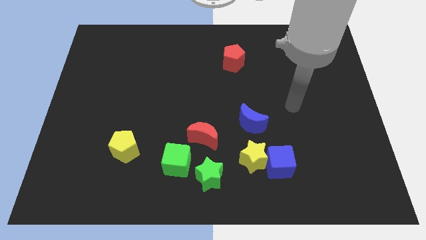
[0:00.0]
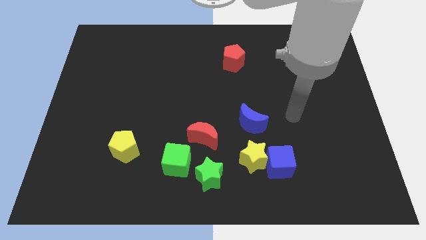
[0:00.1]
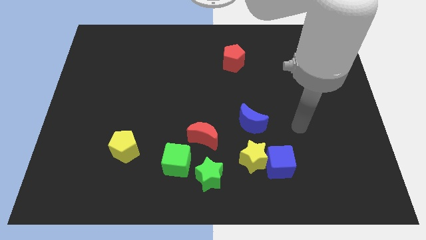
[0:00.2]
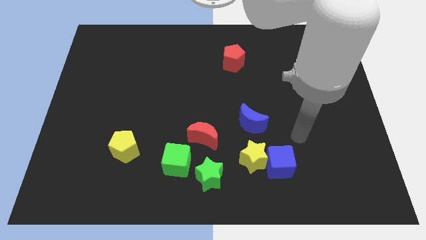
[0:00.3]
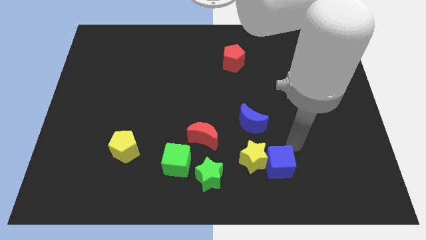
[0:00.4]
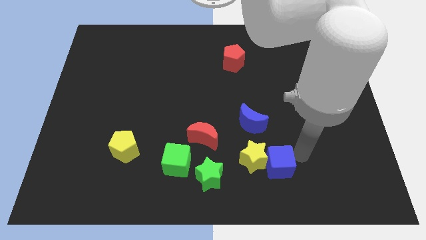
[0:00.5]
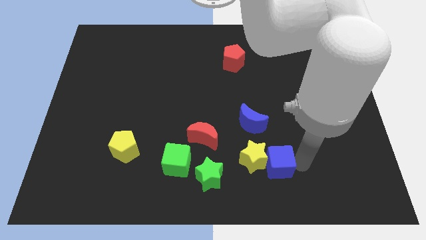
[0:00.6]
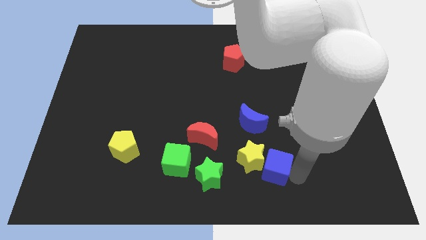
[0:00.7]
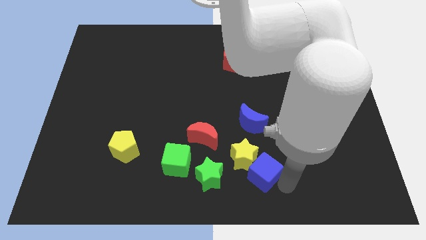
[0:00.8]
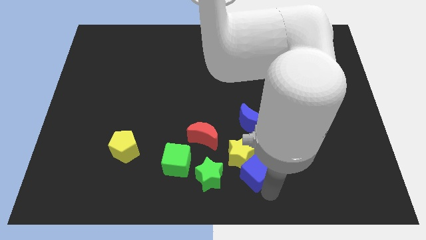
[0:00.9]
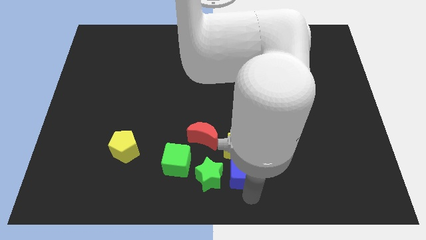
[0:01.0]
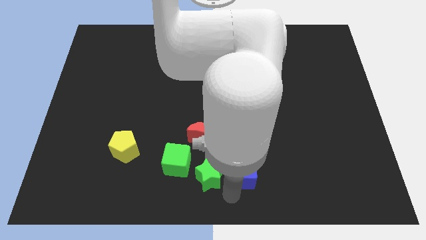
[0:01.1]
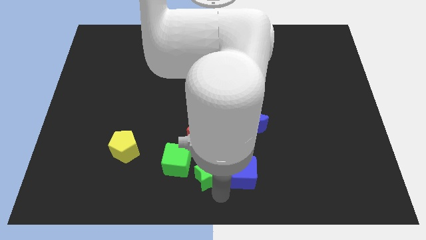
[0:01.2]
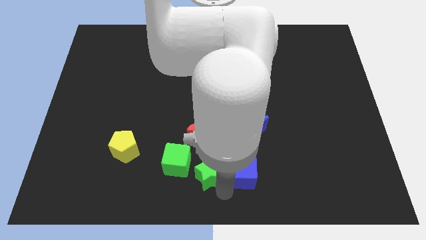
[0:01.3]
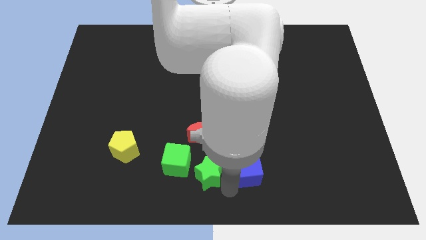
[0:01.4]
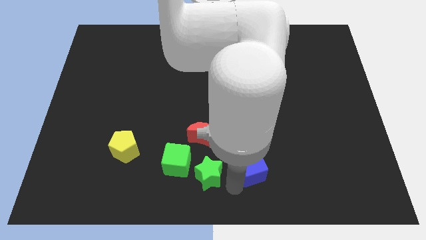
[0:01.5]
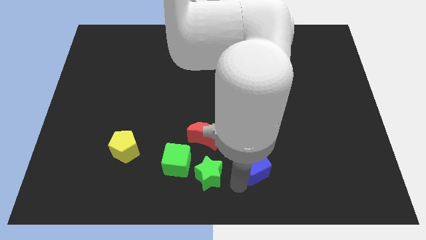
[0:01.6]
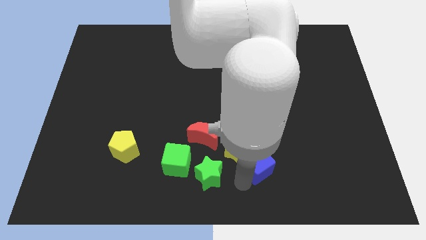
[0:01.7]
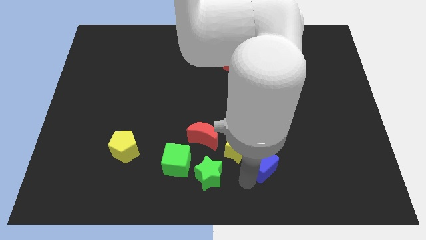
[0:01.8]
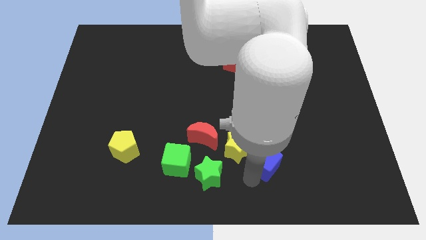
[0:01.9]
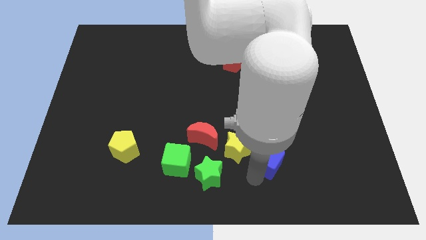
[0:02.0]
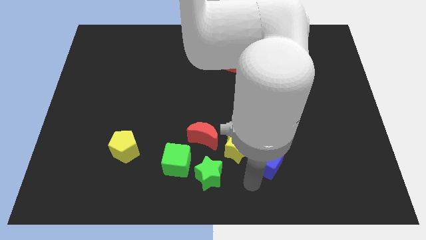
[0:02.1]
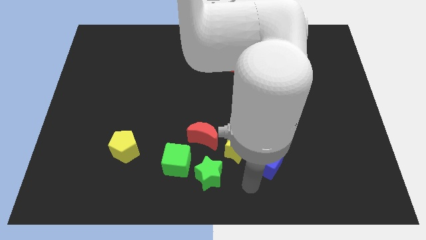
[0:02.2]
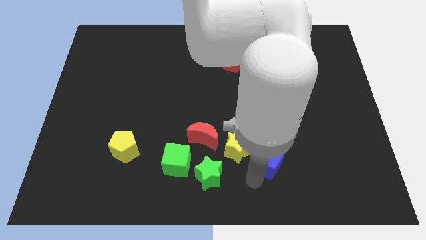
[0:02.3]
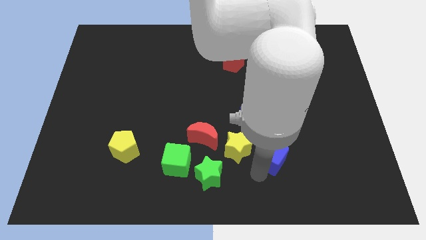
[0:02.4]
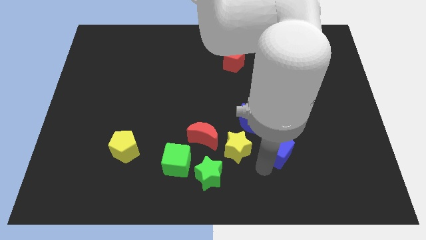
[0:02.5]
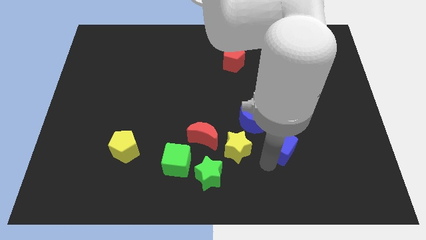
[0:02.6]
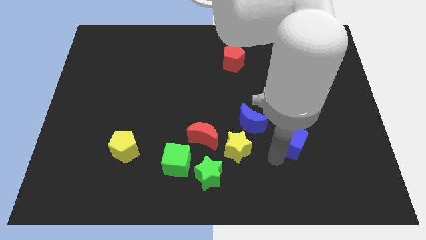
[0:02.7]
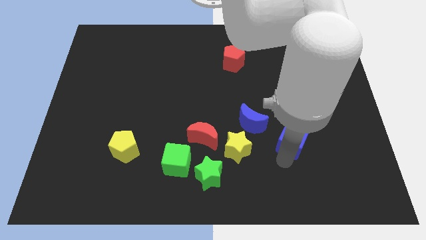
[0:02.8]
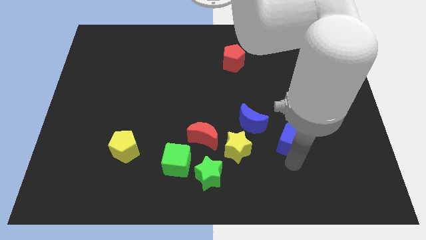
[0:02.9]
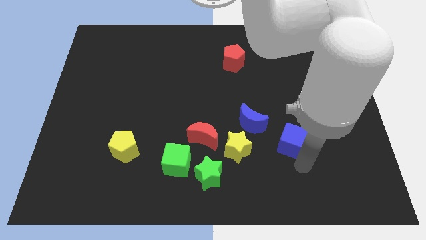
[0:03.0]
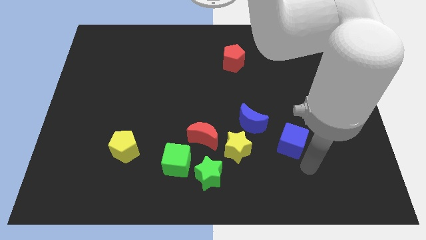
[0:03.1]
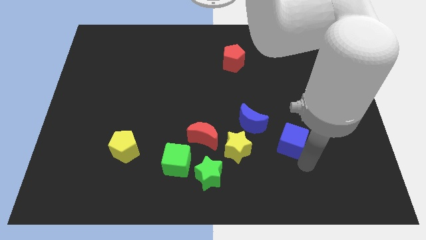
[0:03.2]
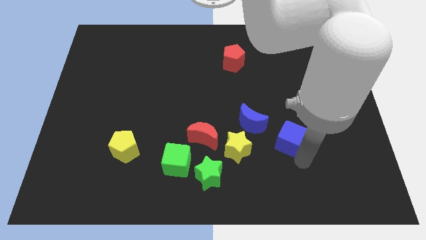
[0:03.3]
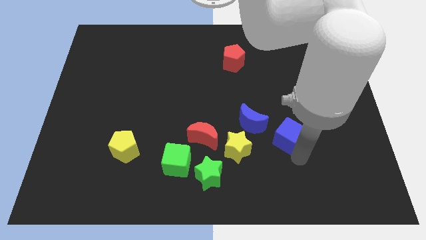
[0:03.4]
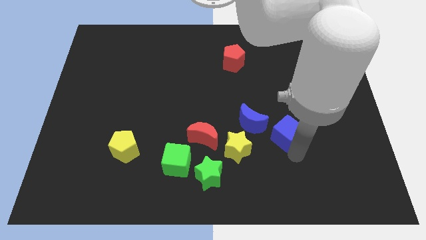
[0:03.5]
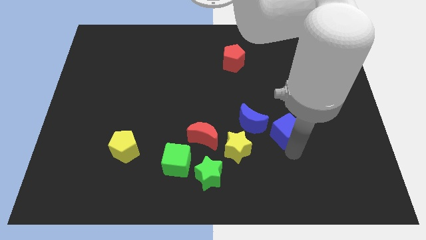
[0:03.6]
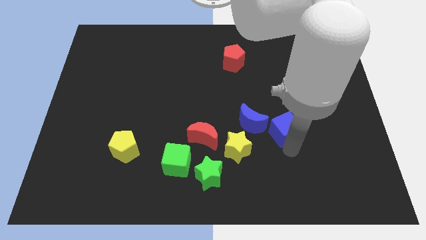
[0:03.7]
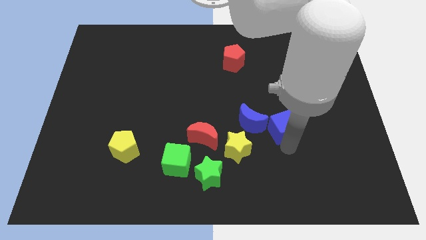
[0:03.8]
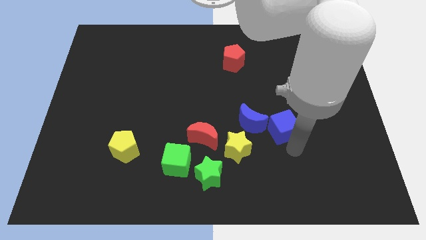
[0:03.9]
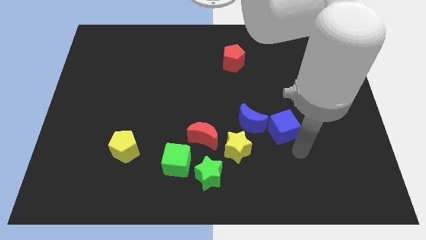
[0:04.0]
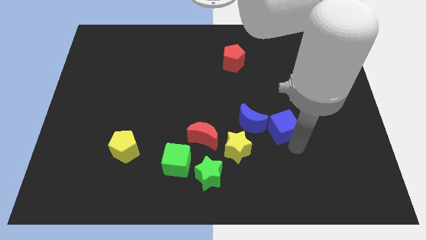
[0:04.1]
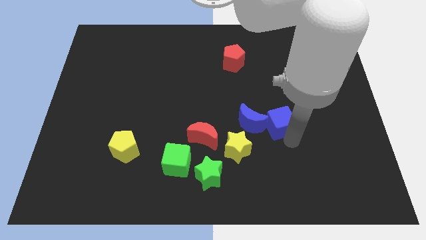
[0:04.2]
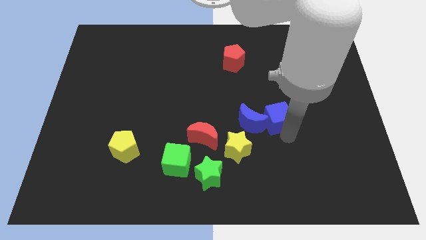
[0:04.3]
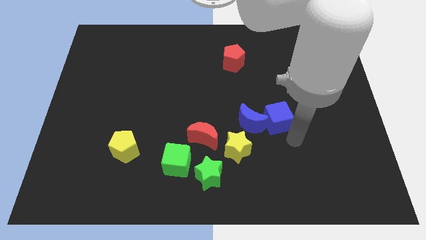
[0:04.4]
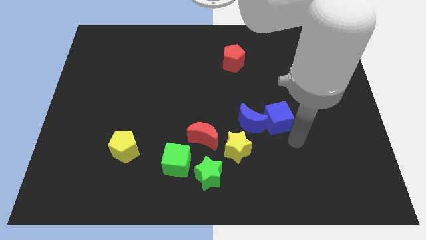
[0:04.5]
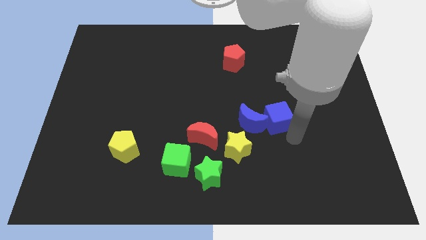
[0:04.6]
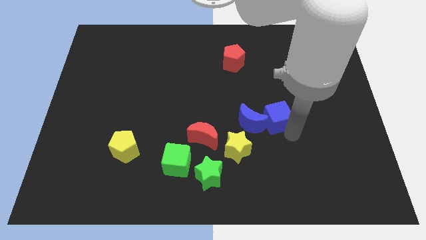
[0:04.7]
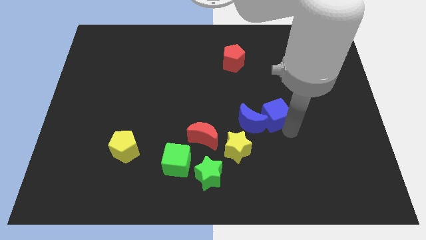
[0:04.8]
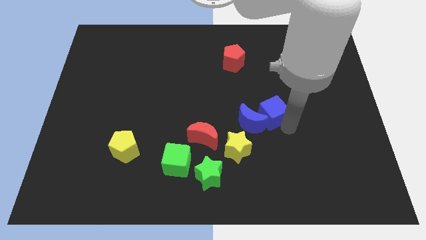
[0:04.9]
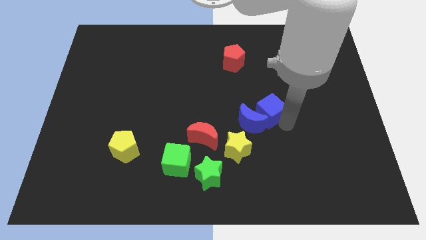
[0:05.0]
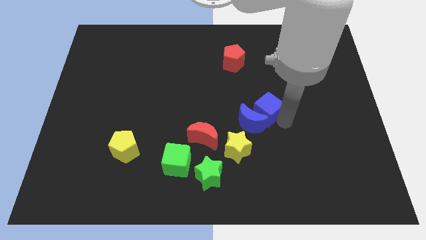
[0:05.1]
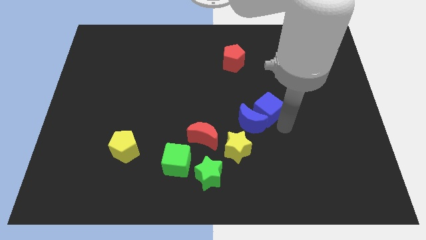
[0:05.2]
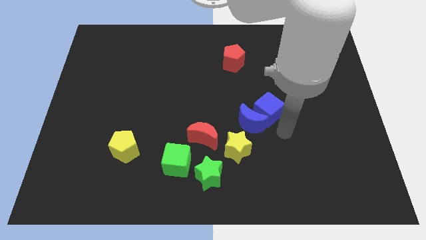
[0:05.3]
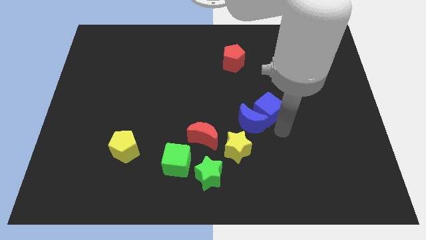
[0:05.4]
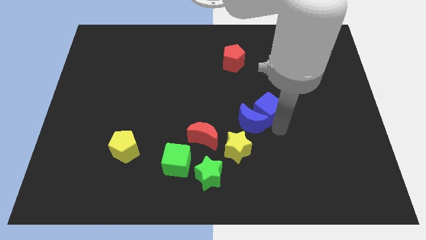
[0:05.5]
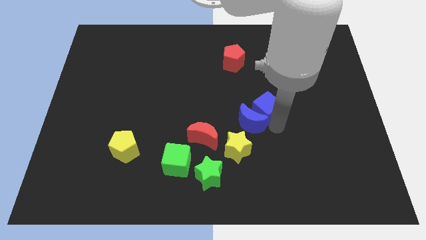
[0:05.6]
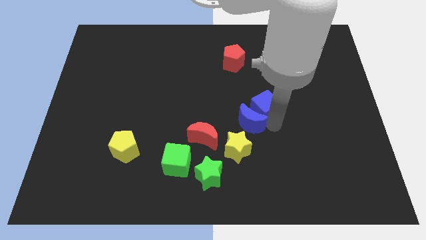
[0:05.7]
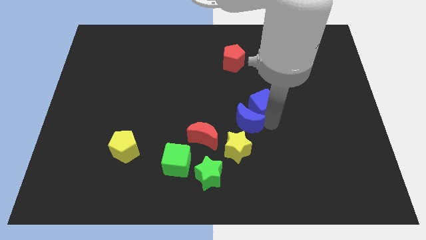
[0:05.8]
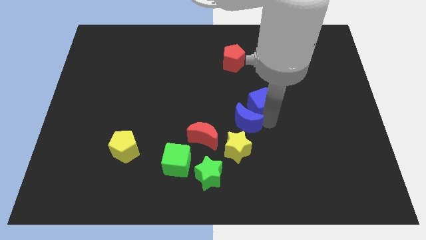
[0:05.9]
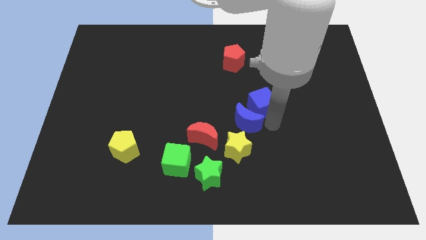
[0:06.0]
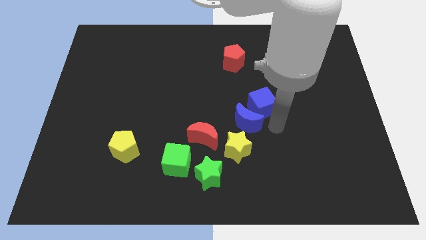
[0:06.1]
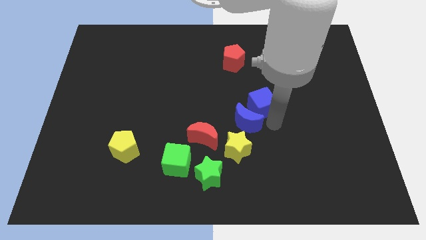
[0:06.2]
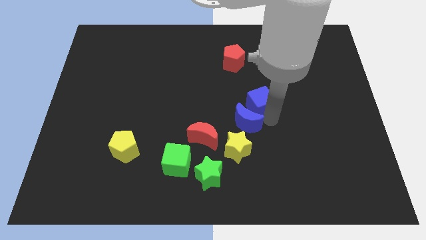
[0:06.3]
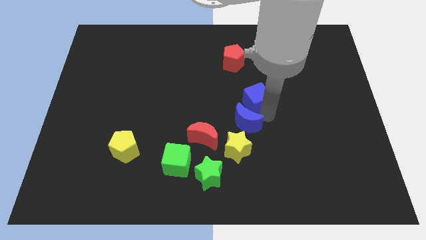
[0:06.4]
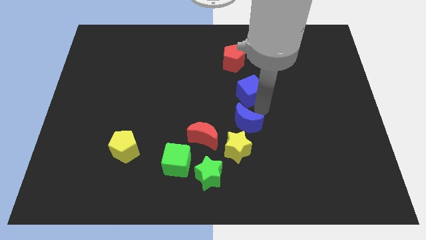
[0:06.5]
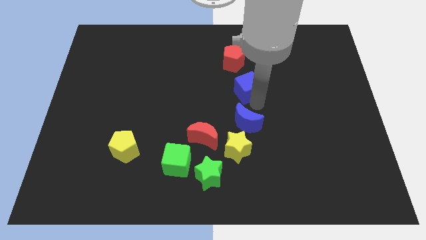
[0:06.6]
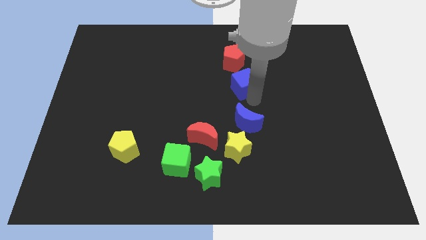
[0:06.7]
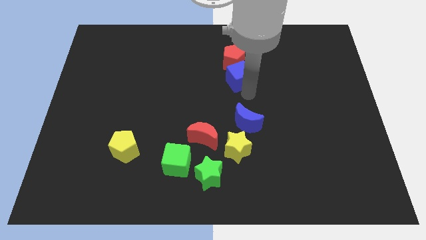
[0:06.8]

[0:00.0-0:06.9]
move the blue cube to the red pentagon

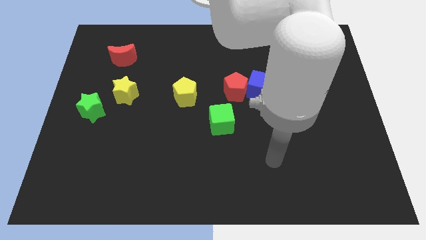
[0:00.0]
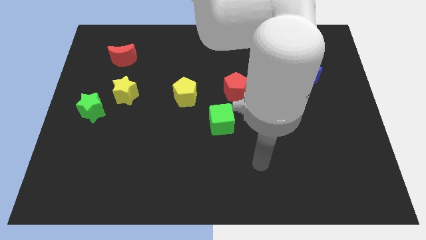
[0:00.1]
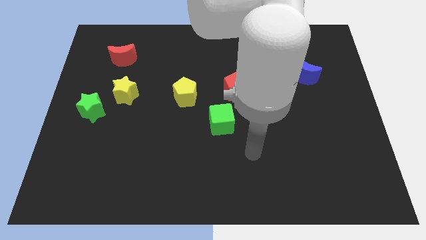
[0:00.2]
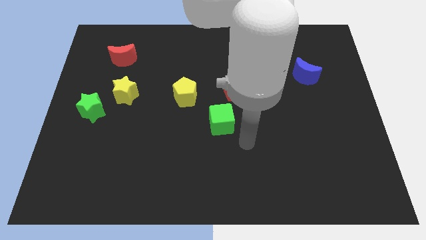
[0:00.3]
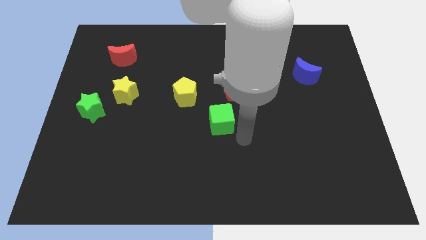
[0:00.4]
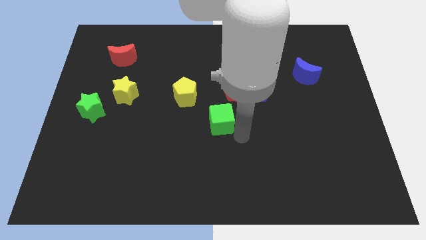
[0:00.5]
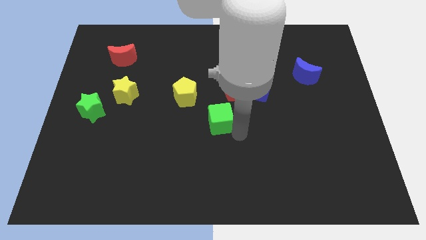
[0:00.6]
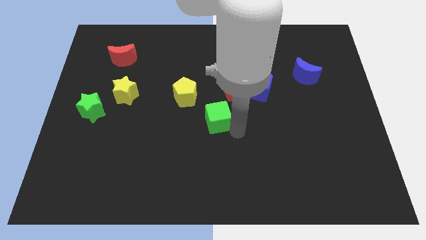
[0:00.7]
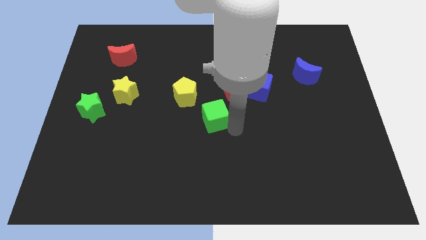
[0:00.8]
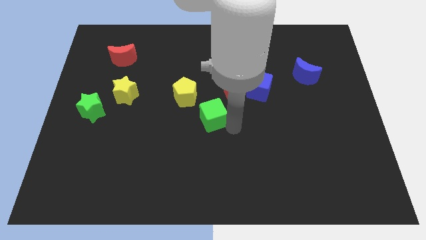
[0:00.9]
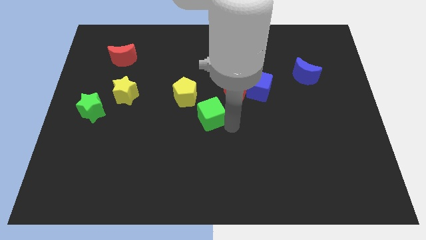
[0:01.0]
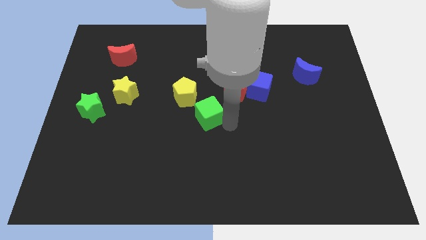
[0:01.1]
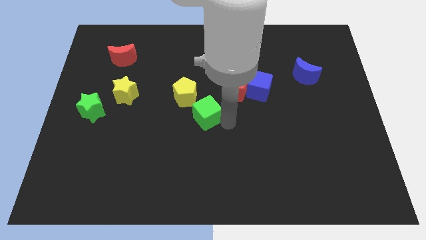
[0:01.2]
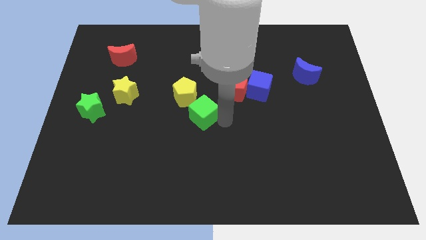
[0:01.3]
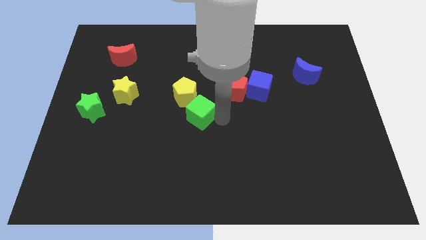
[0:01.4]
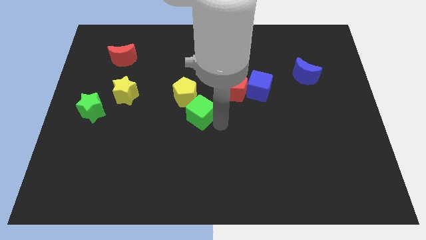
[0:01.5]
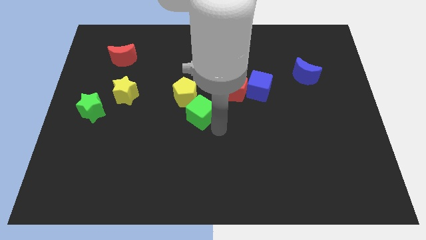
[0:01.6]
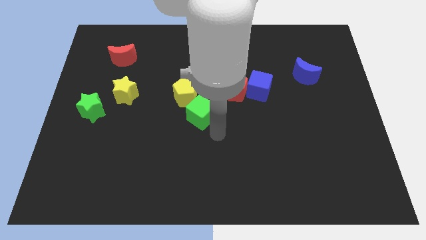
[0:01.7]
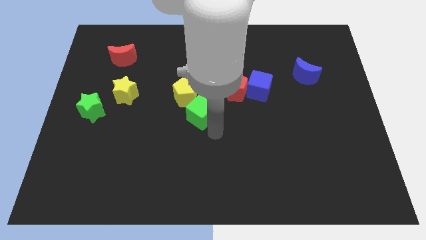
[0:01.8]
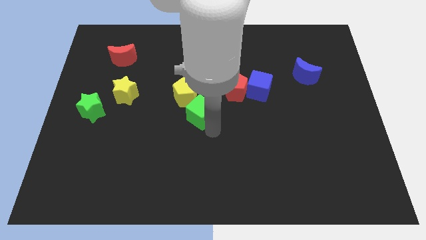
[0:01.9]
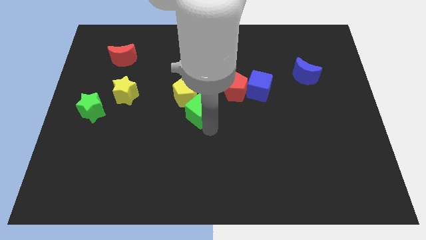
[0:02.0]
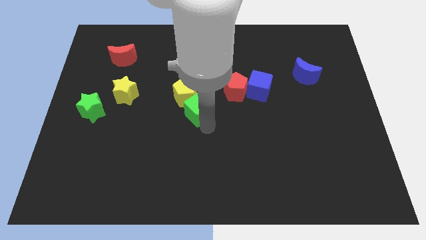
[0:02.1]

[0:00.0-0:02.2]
slide the green cube close to the yellow pentagon
